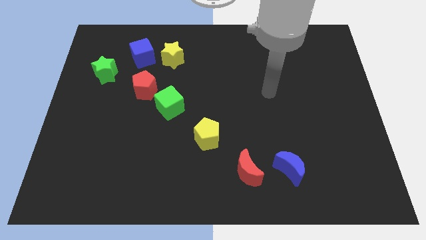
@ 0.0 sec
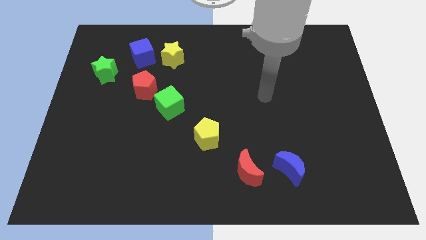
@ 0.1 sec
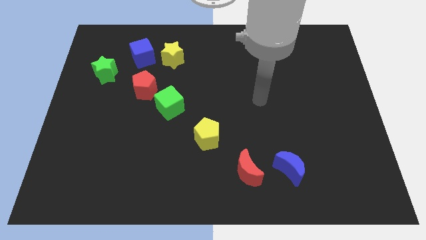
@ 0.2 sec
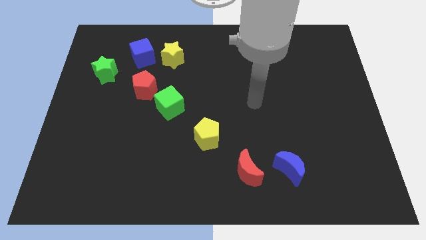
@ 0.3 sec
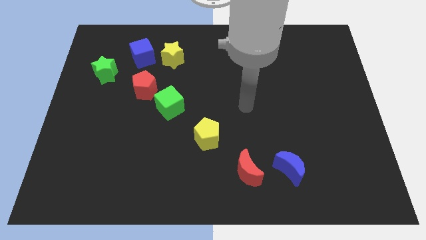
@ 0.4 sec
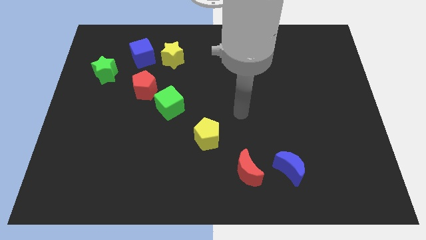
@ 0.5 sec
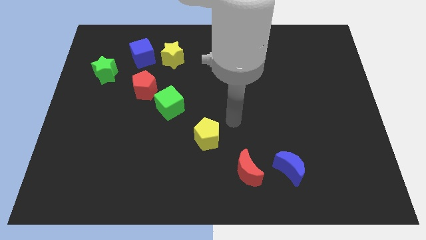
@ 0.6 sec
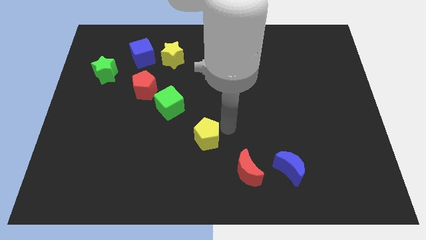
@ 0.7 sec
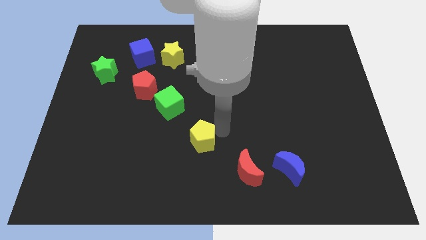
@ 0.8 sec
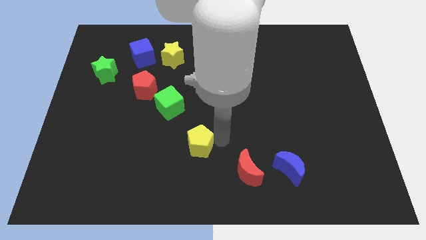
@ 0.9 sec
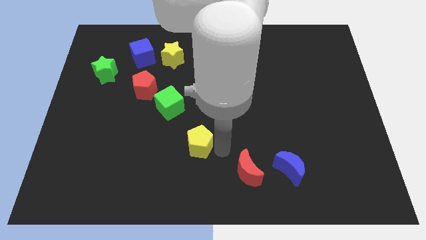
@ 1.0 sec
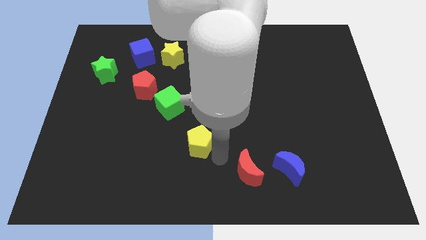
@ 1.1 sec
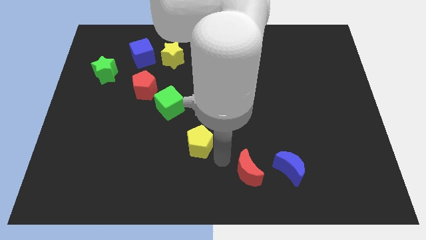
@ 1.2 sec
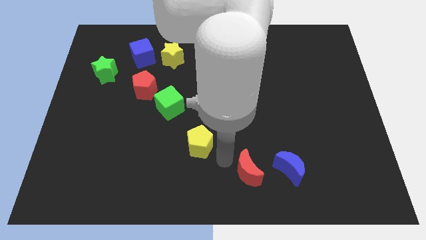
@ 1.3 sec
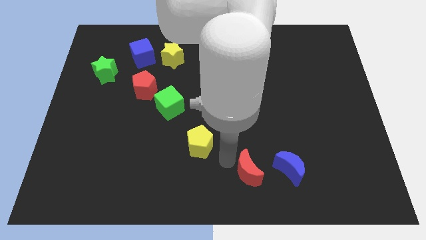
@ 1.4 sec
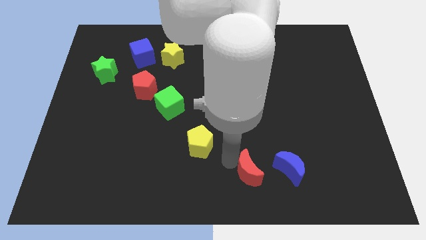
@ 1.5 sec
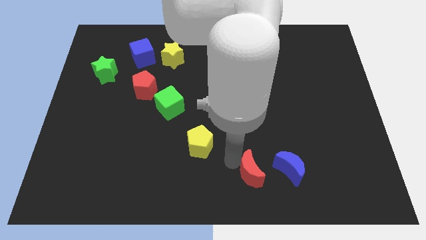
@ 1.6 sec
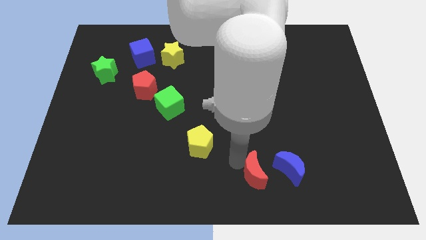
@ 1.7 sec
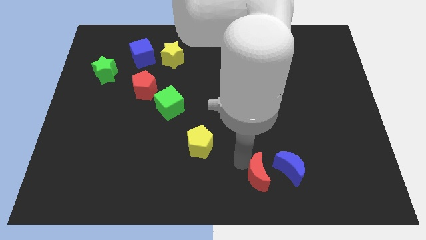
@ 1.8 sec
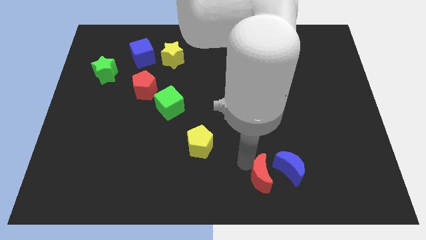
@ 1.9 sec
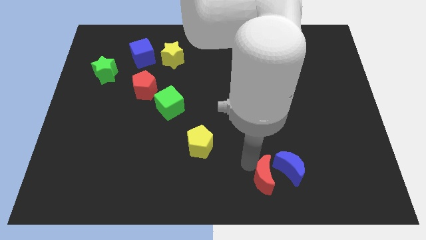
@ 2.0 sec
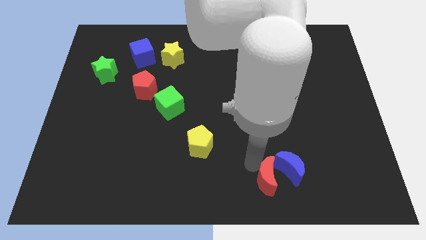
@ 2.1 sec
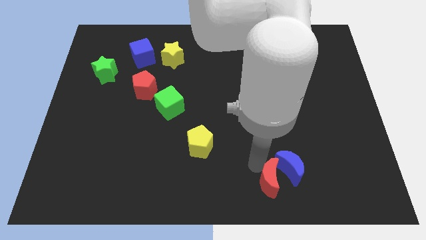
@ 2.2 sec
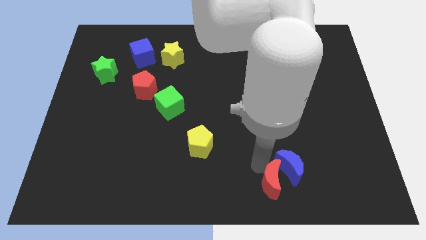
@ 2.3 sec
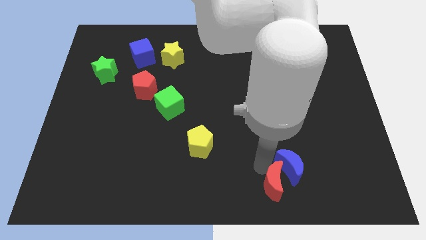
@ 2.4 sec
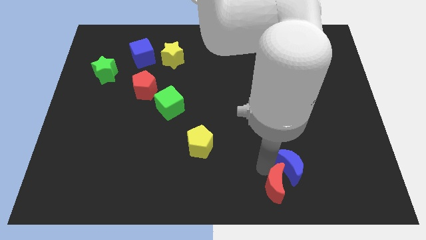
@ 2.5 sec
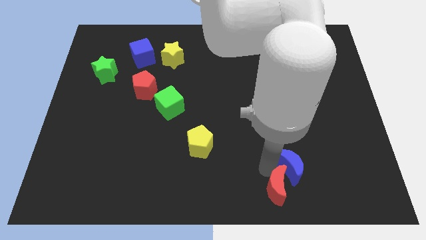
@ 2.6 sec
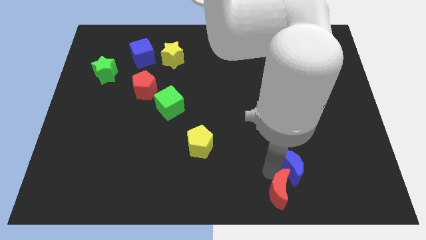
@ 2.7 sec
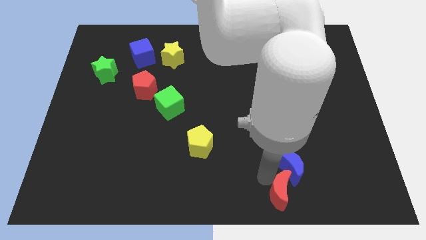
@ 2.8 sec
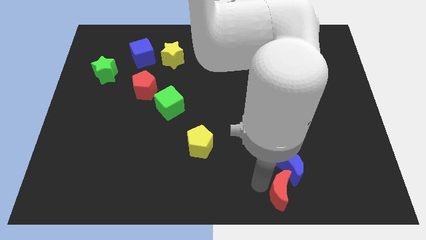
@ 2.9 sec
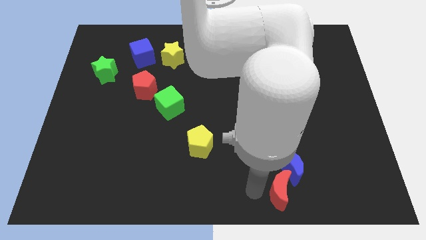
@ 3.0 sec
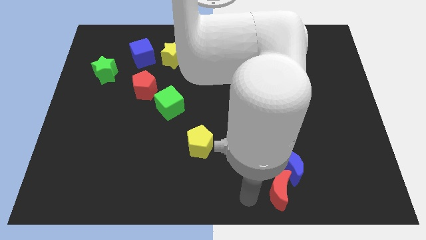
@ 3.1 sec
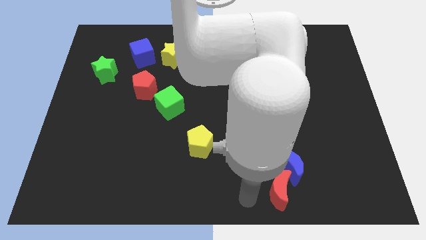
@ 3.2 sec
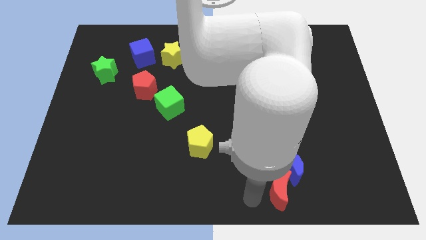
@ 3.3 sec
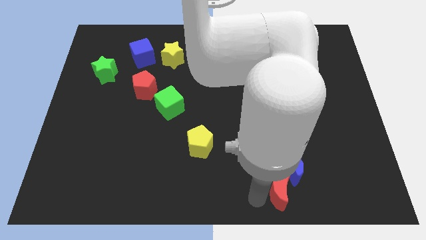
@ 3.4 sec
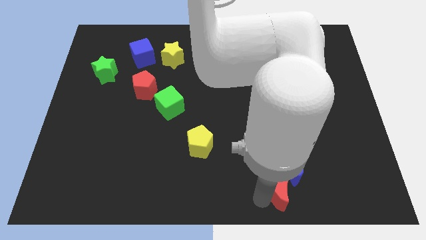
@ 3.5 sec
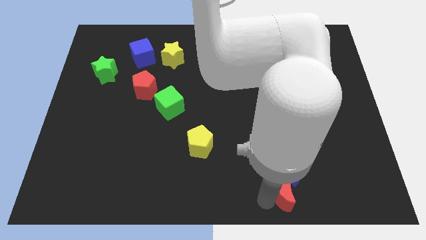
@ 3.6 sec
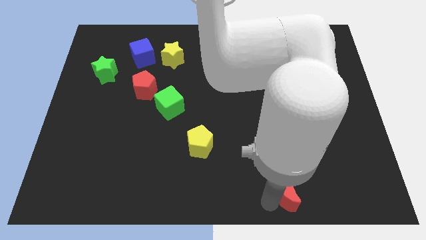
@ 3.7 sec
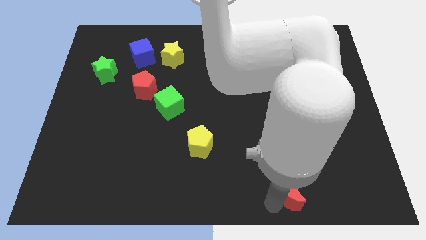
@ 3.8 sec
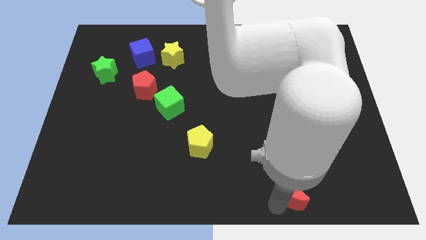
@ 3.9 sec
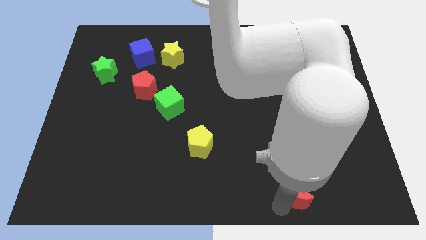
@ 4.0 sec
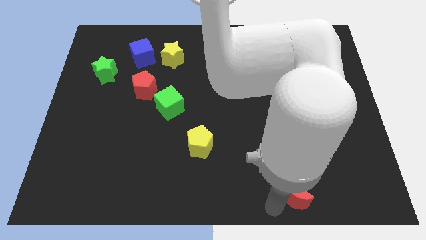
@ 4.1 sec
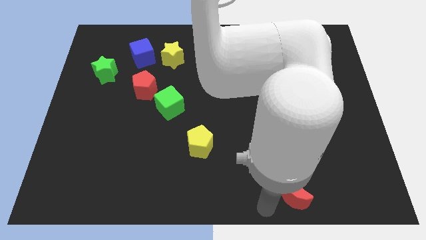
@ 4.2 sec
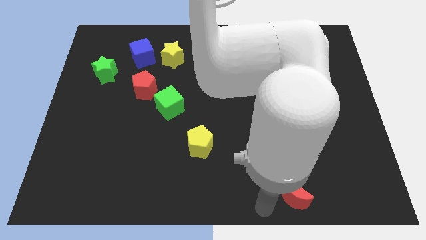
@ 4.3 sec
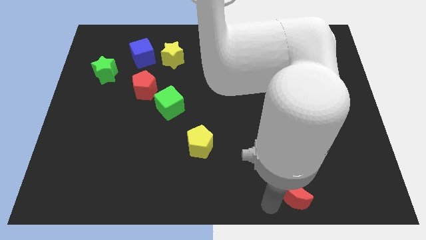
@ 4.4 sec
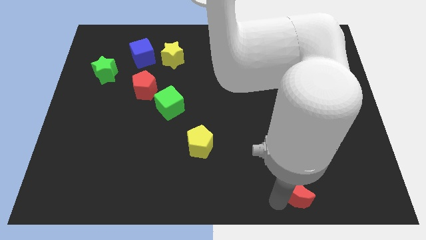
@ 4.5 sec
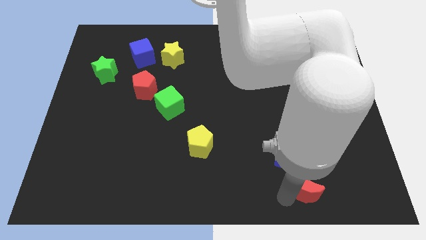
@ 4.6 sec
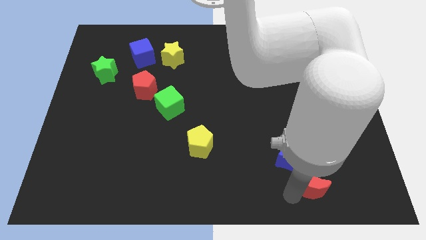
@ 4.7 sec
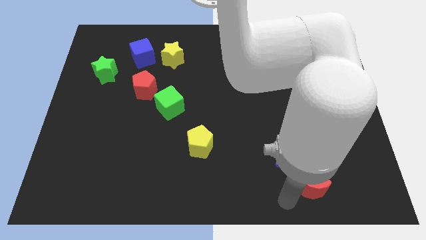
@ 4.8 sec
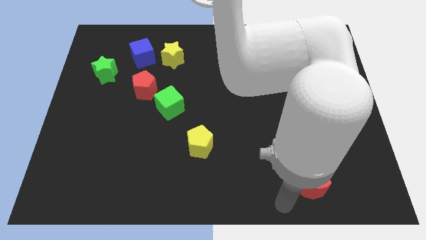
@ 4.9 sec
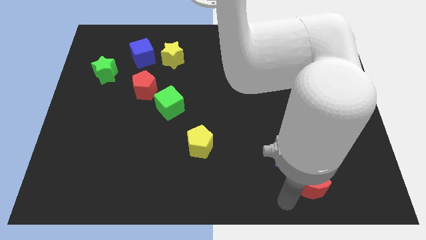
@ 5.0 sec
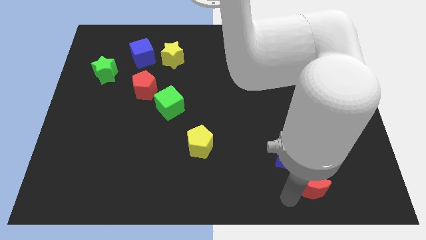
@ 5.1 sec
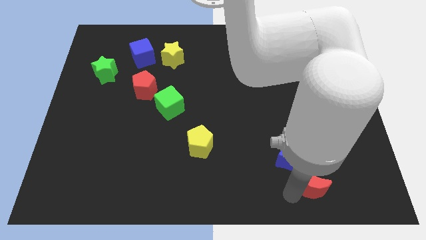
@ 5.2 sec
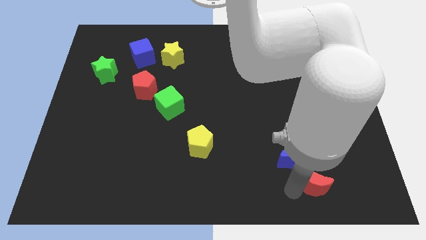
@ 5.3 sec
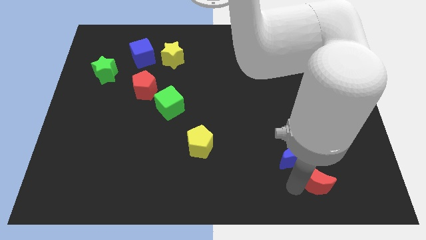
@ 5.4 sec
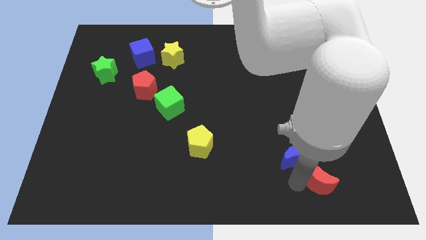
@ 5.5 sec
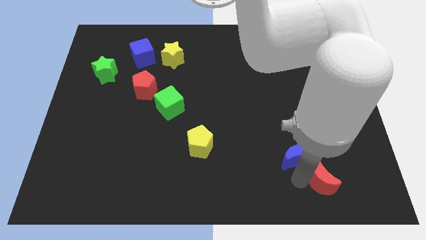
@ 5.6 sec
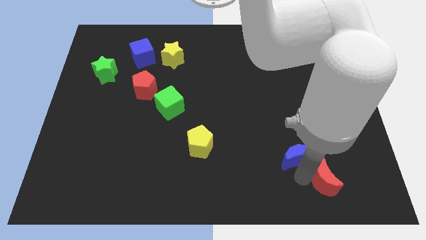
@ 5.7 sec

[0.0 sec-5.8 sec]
put the red moon just right of the blue moon

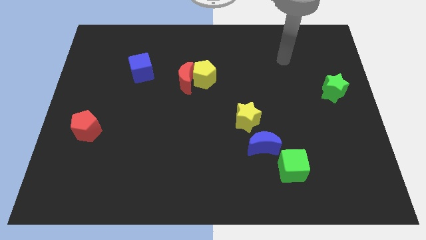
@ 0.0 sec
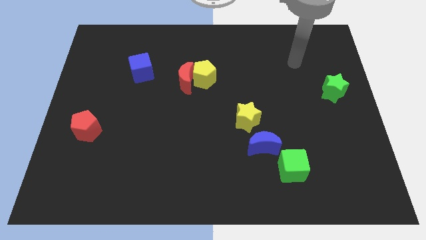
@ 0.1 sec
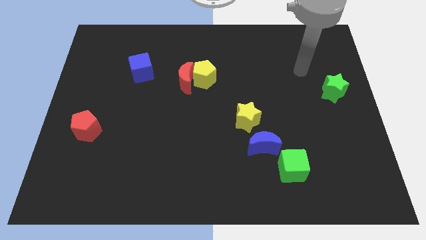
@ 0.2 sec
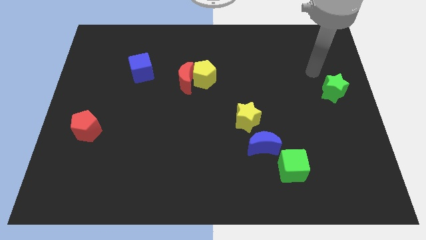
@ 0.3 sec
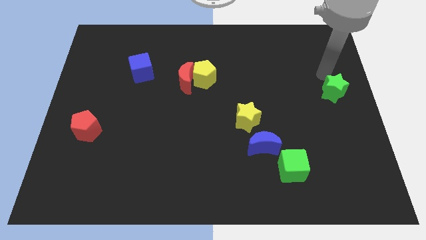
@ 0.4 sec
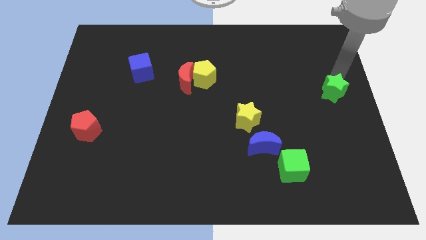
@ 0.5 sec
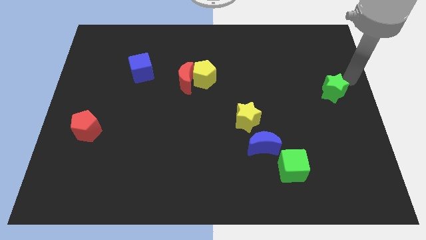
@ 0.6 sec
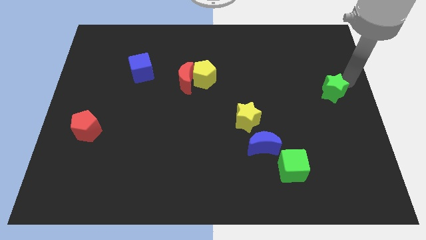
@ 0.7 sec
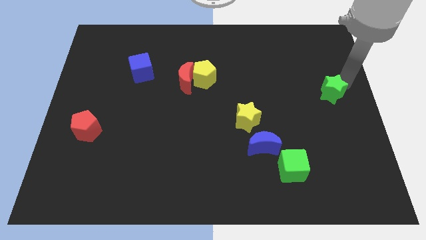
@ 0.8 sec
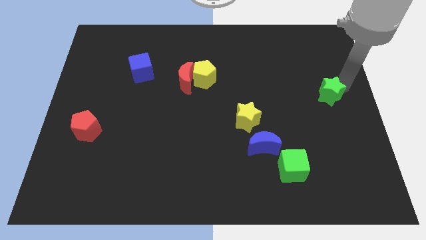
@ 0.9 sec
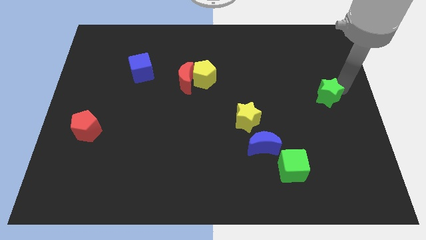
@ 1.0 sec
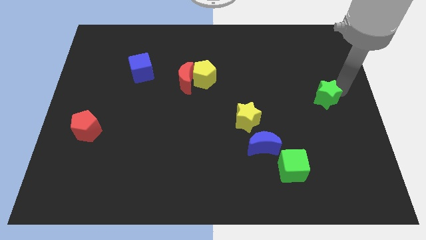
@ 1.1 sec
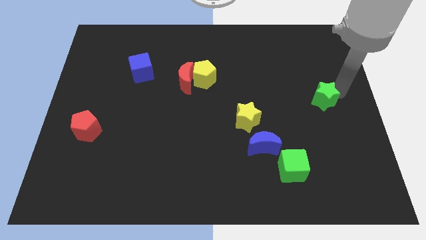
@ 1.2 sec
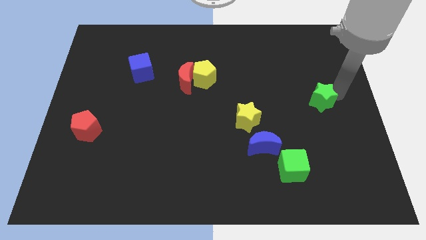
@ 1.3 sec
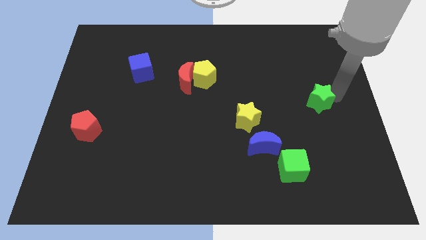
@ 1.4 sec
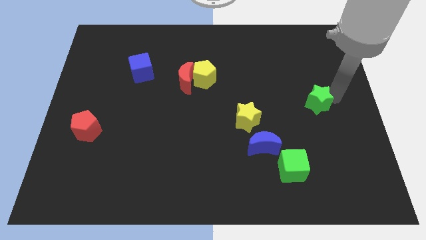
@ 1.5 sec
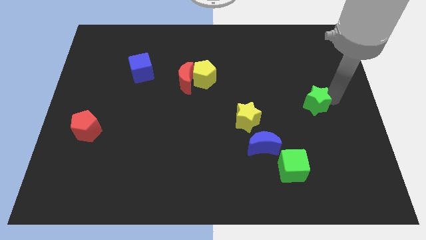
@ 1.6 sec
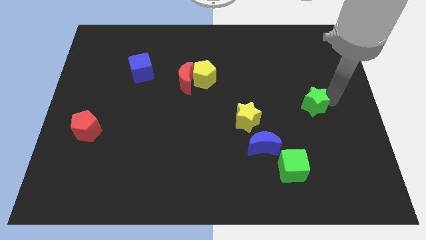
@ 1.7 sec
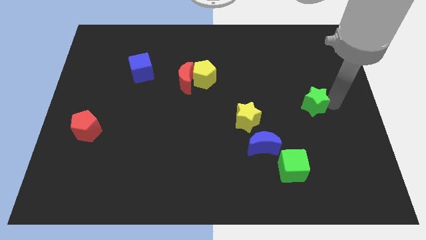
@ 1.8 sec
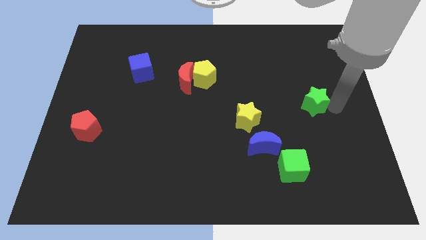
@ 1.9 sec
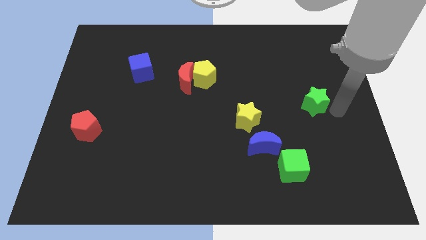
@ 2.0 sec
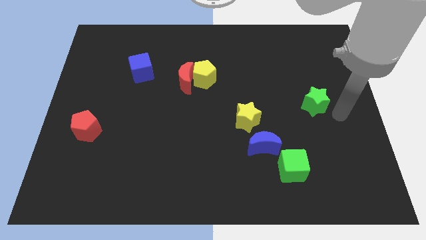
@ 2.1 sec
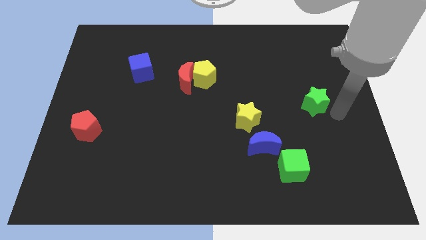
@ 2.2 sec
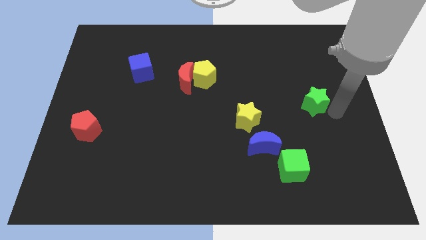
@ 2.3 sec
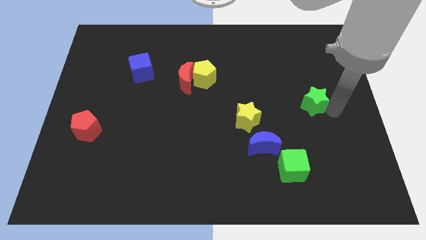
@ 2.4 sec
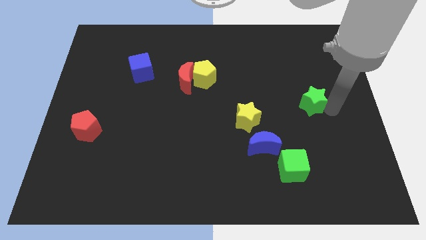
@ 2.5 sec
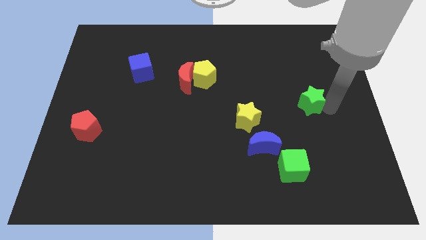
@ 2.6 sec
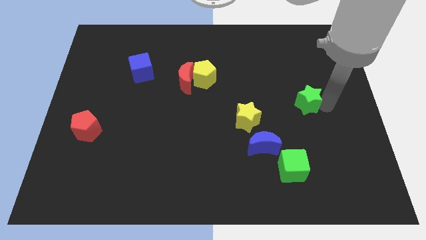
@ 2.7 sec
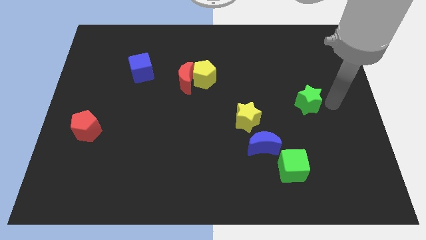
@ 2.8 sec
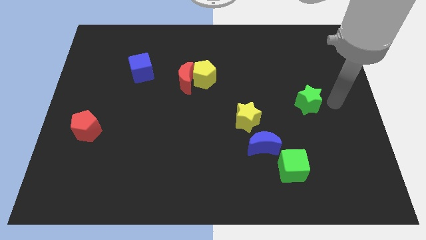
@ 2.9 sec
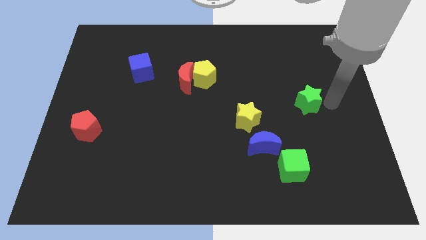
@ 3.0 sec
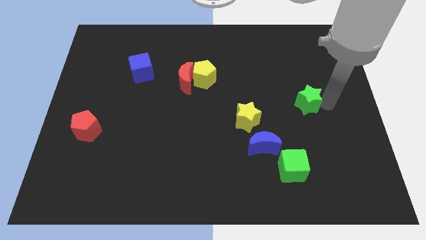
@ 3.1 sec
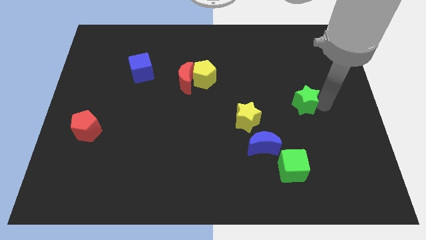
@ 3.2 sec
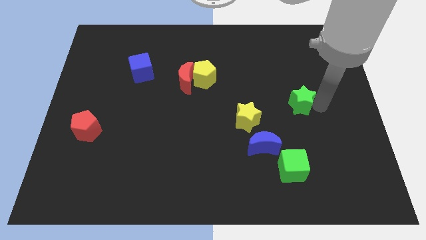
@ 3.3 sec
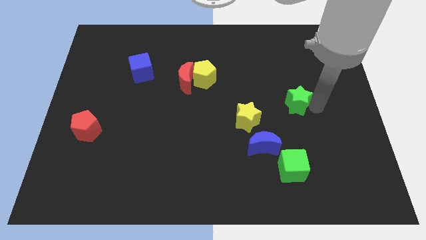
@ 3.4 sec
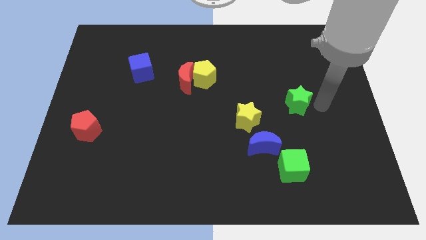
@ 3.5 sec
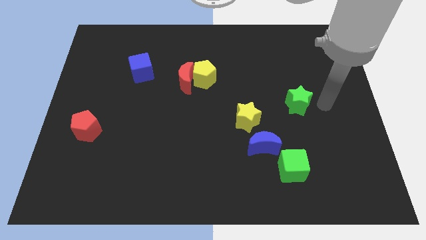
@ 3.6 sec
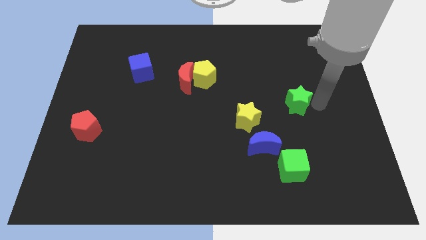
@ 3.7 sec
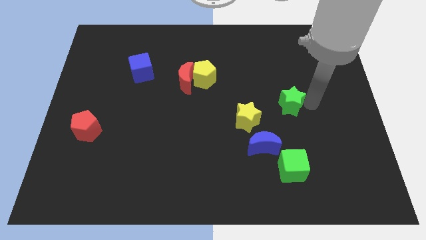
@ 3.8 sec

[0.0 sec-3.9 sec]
push the green star diagonally up and to the right of the yellow star
